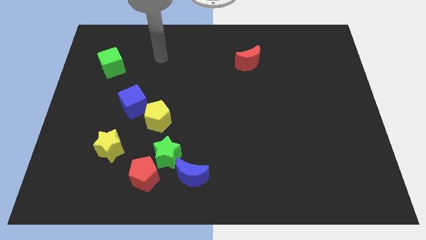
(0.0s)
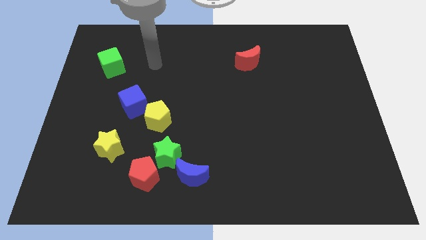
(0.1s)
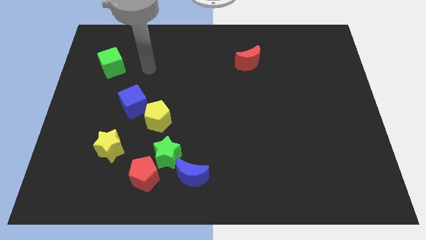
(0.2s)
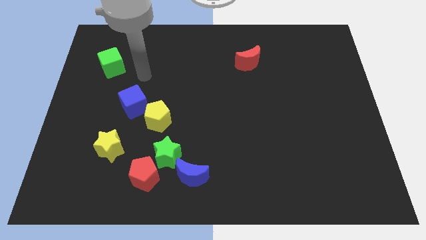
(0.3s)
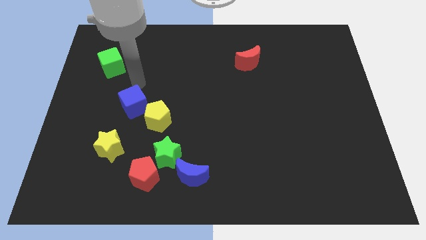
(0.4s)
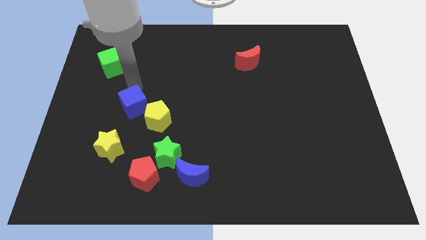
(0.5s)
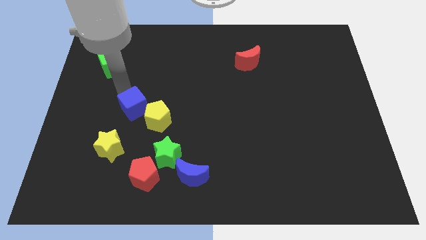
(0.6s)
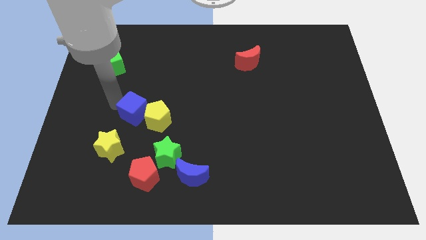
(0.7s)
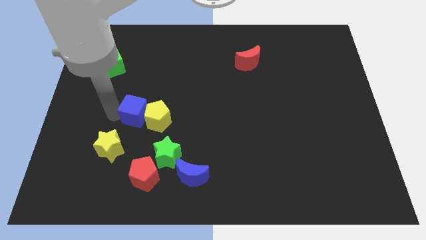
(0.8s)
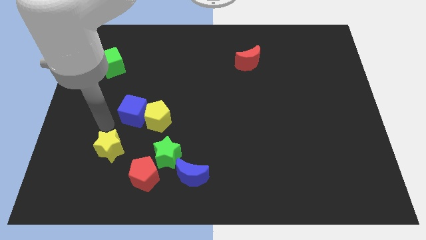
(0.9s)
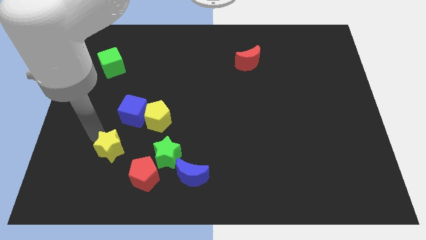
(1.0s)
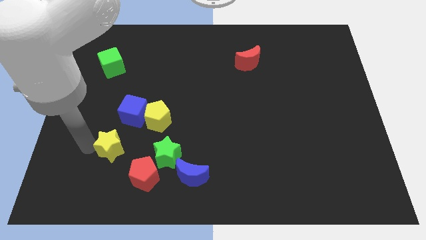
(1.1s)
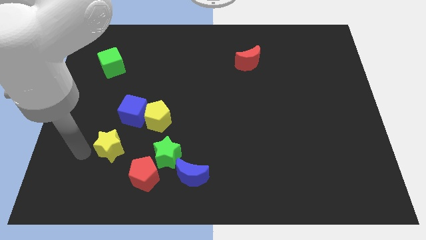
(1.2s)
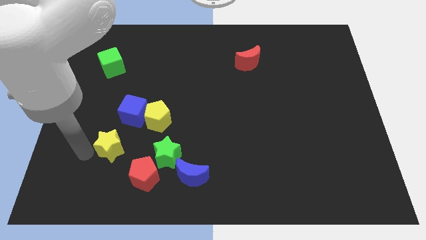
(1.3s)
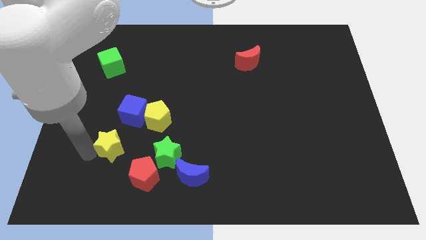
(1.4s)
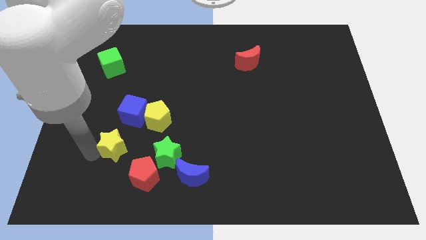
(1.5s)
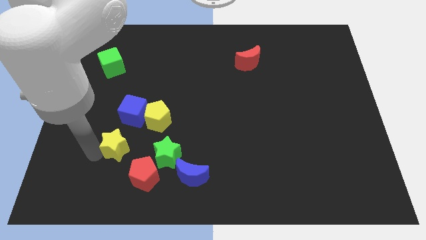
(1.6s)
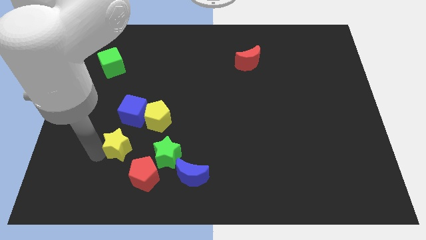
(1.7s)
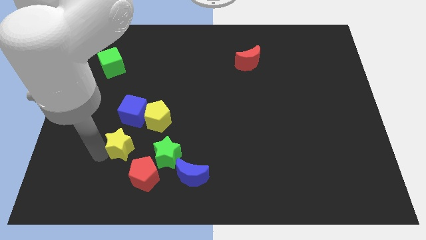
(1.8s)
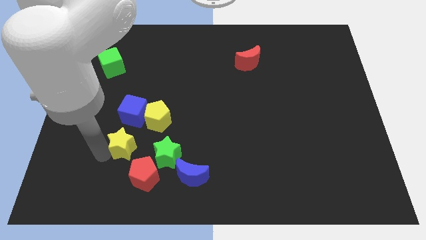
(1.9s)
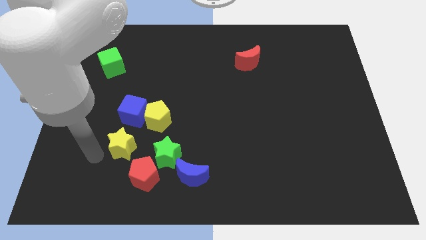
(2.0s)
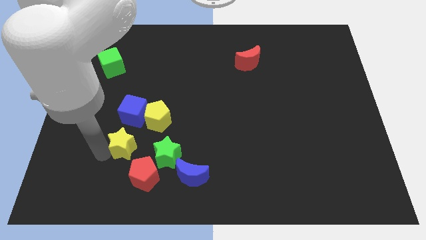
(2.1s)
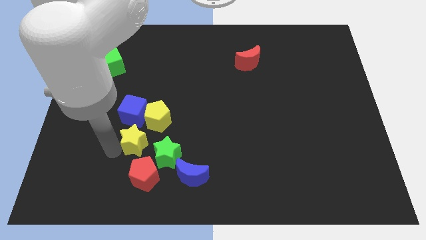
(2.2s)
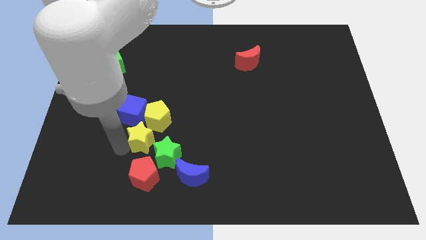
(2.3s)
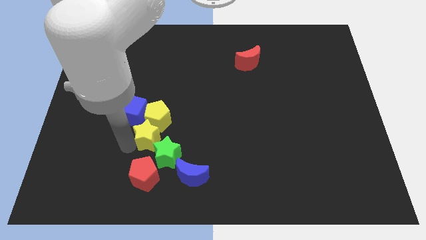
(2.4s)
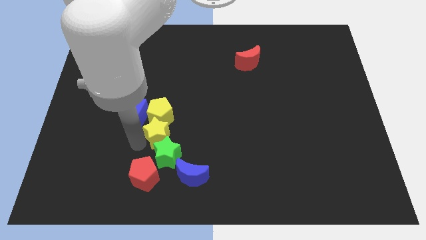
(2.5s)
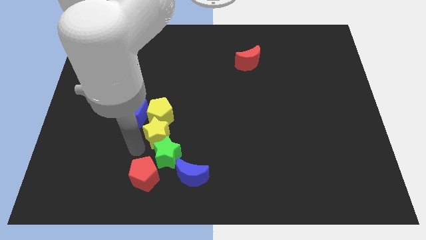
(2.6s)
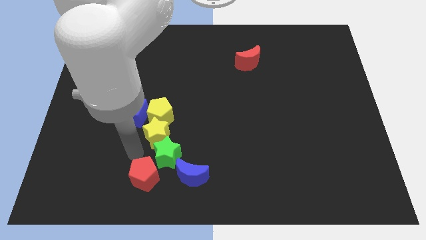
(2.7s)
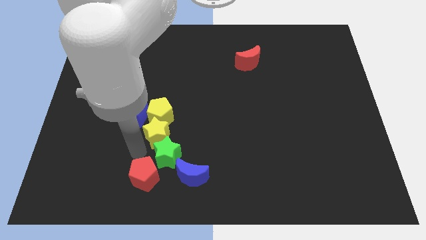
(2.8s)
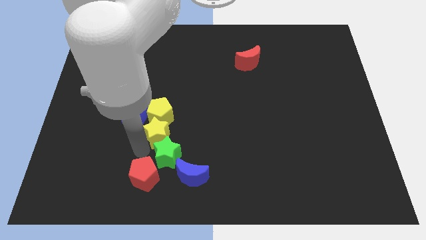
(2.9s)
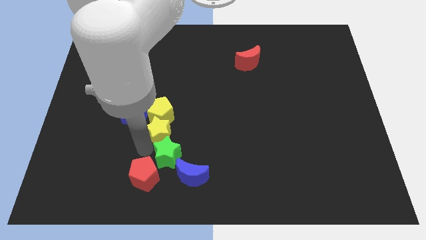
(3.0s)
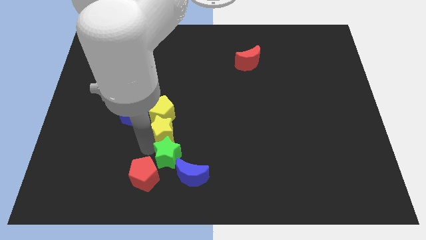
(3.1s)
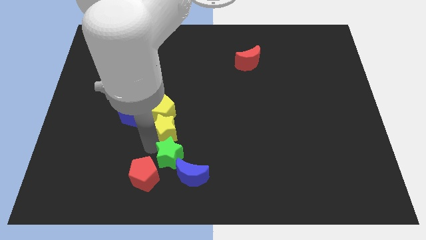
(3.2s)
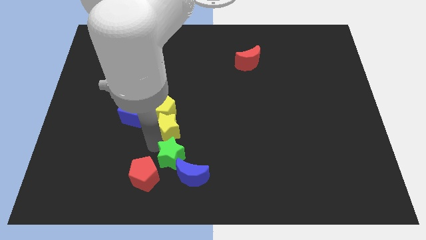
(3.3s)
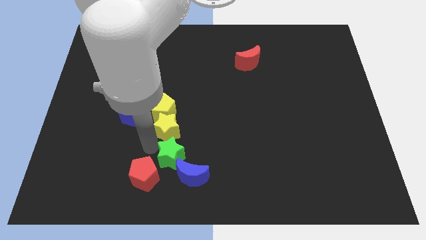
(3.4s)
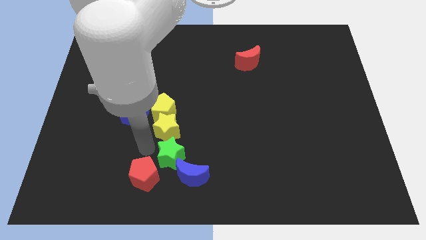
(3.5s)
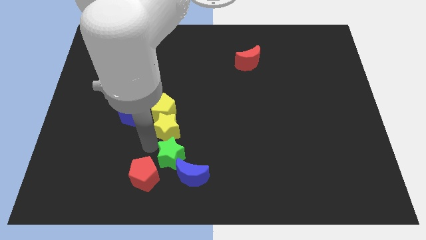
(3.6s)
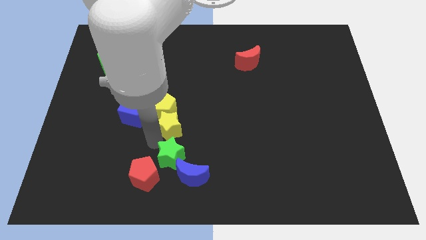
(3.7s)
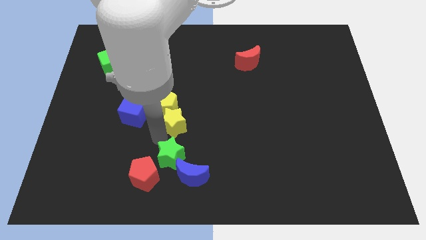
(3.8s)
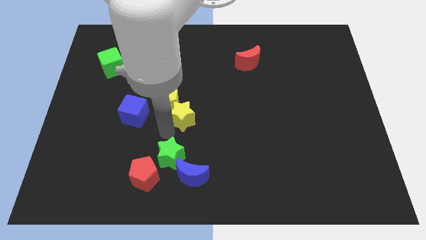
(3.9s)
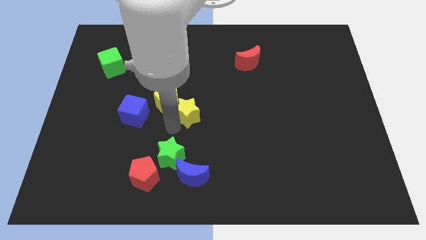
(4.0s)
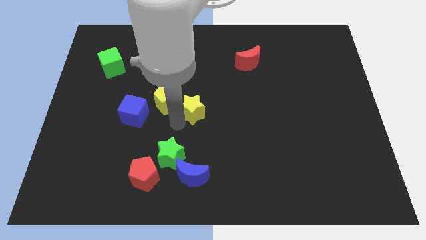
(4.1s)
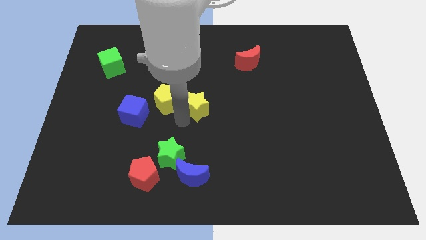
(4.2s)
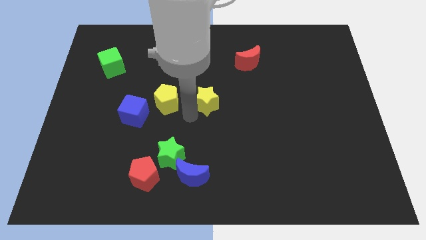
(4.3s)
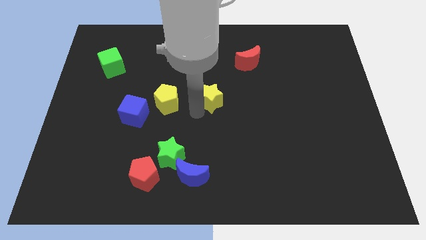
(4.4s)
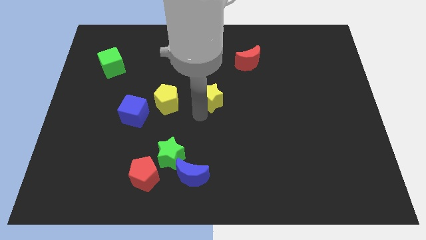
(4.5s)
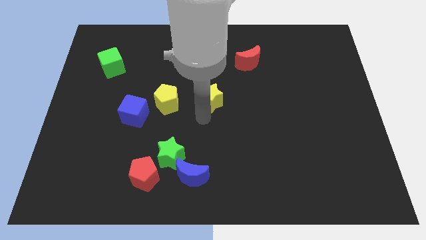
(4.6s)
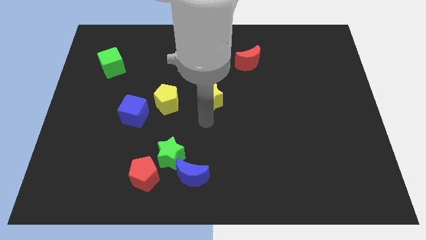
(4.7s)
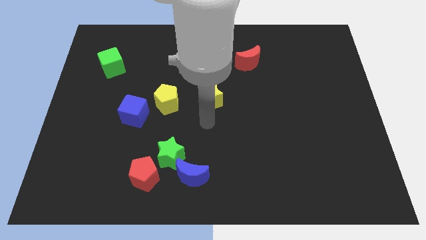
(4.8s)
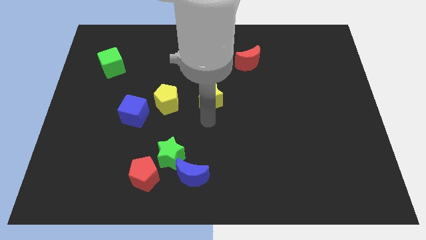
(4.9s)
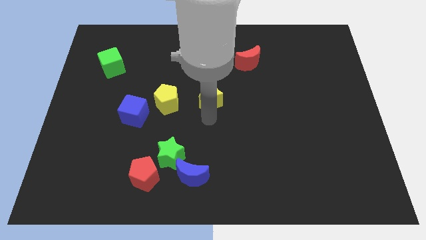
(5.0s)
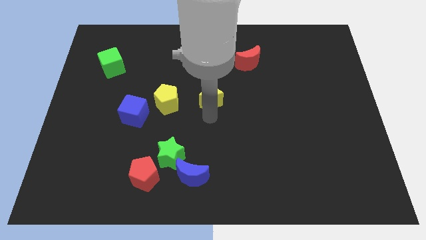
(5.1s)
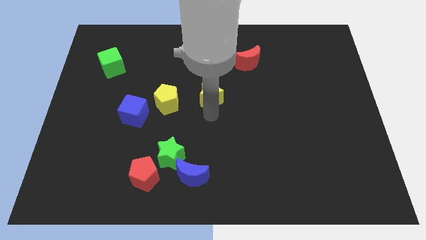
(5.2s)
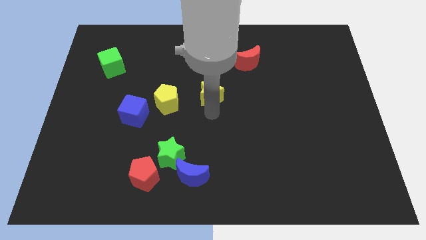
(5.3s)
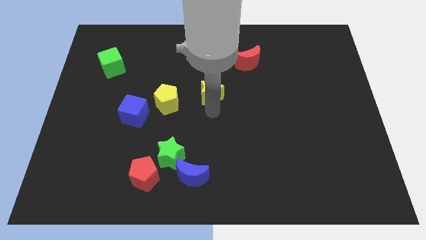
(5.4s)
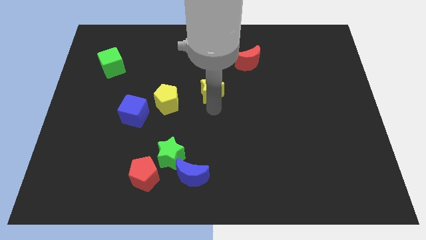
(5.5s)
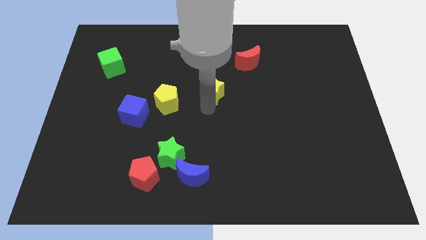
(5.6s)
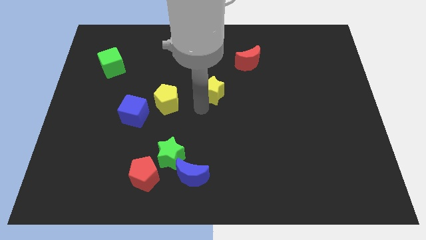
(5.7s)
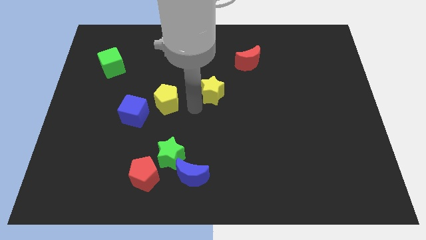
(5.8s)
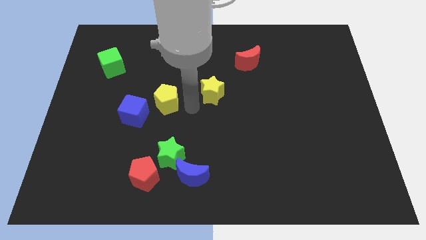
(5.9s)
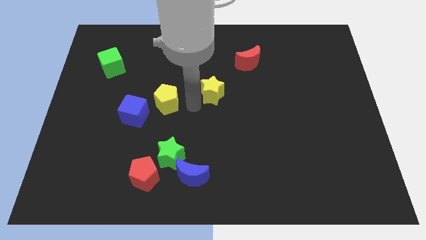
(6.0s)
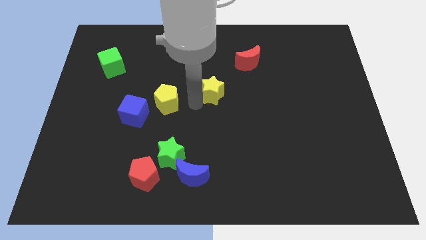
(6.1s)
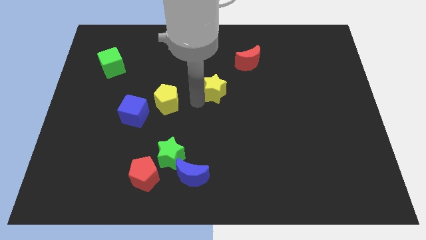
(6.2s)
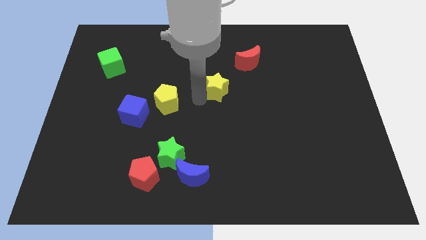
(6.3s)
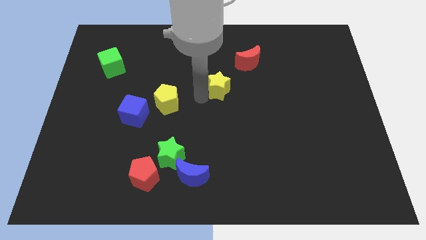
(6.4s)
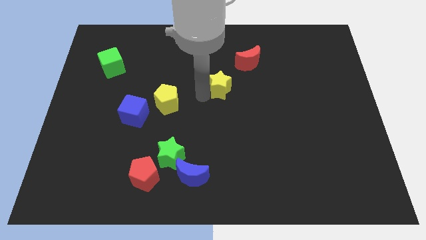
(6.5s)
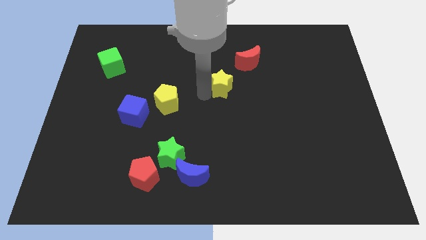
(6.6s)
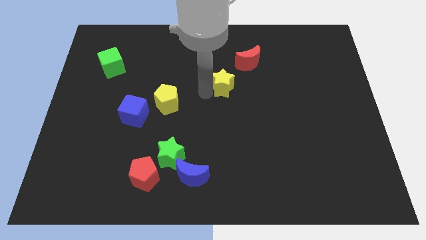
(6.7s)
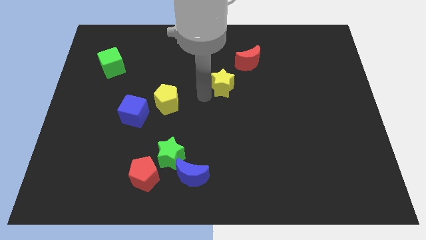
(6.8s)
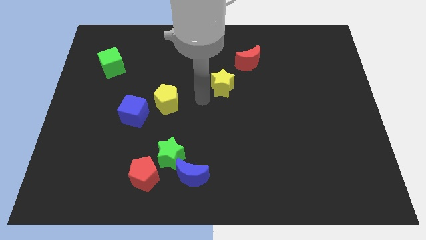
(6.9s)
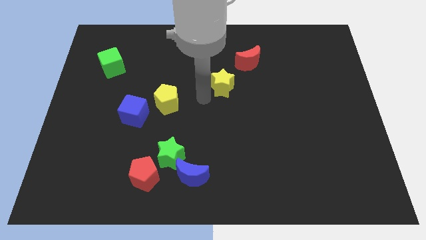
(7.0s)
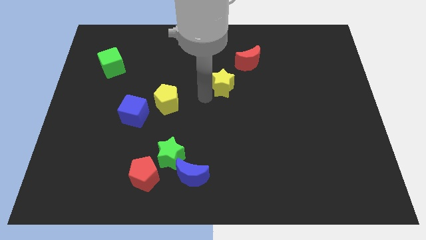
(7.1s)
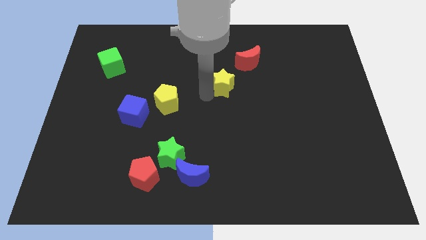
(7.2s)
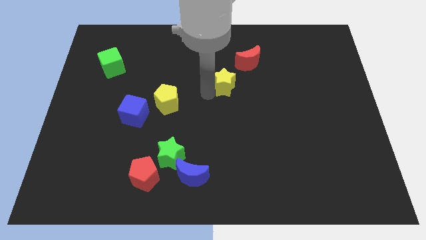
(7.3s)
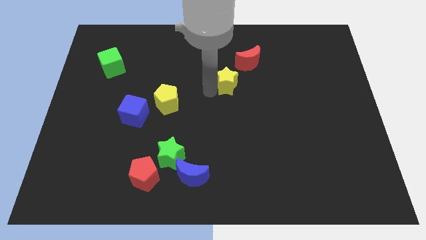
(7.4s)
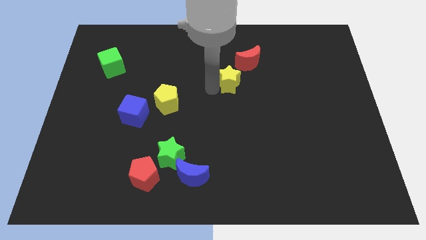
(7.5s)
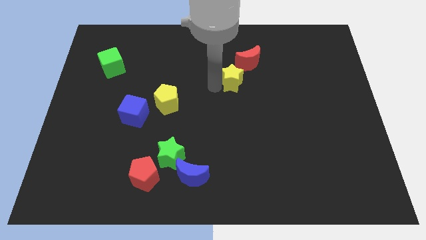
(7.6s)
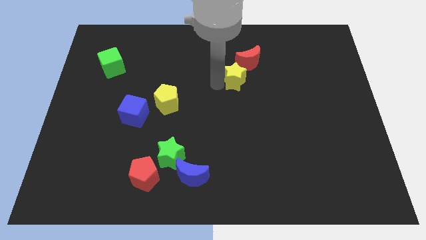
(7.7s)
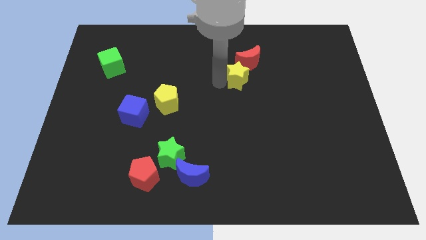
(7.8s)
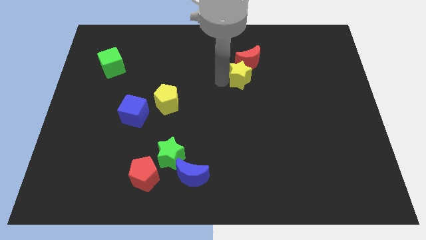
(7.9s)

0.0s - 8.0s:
move the yellow star towards the red moon
